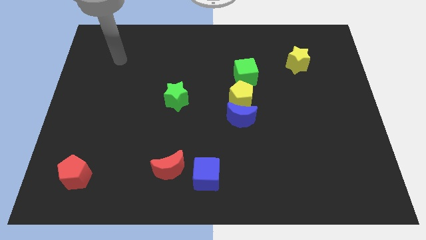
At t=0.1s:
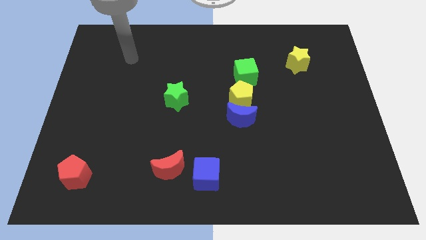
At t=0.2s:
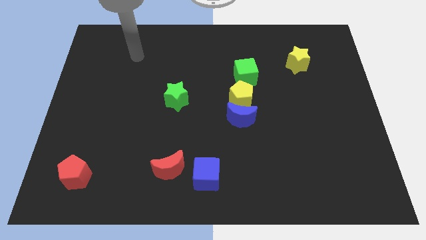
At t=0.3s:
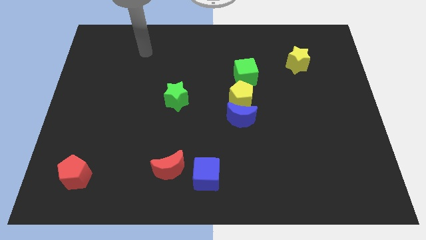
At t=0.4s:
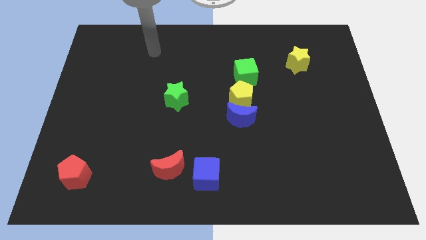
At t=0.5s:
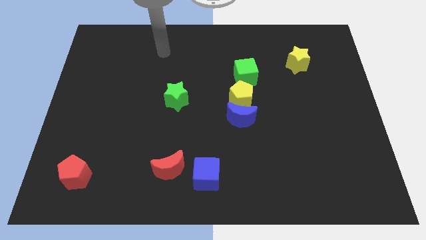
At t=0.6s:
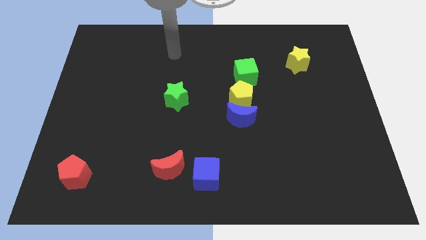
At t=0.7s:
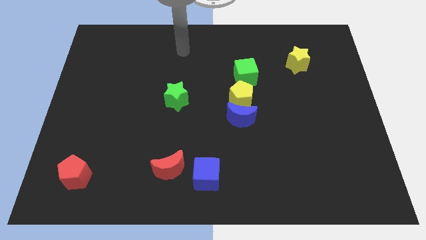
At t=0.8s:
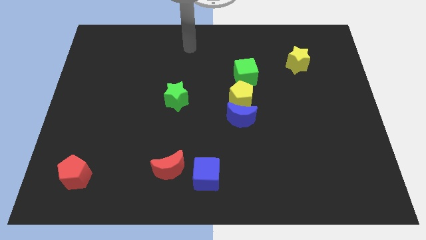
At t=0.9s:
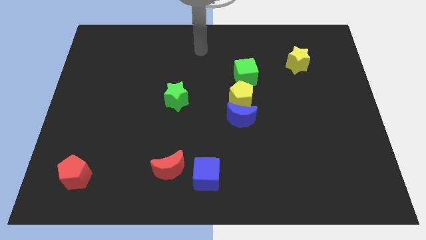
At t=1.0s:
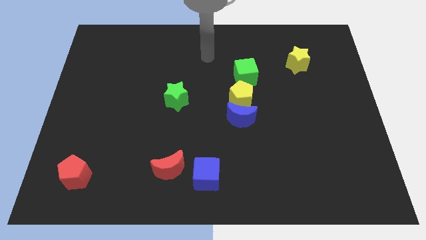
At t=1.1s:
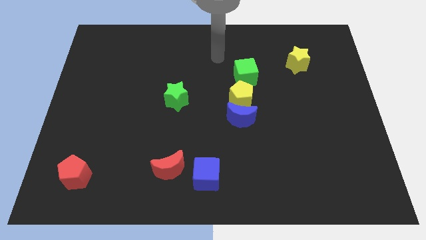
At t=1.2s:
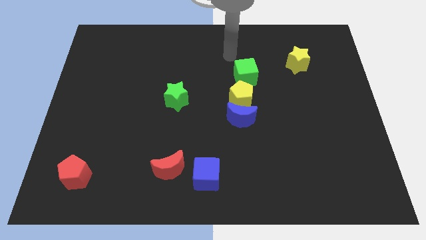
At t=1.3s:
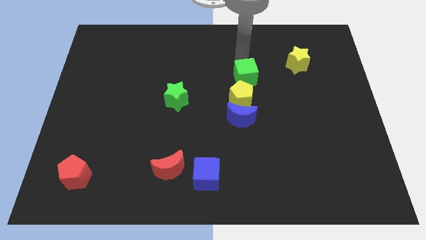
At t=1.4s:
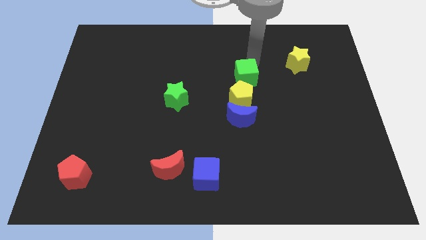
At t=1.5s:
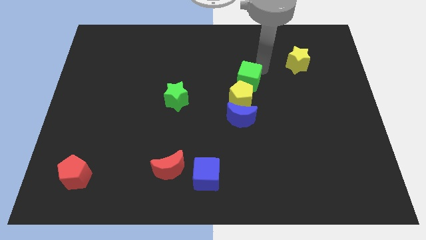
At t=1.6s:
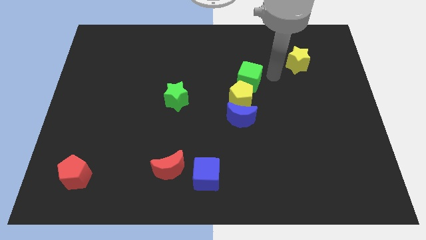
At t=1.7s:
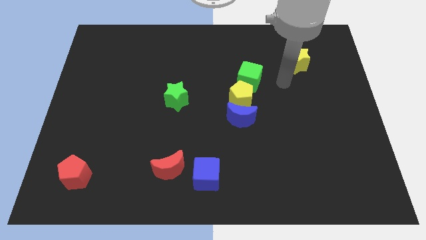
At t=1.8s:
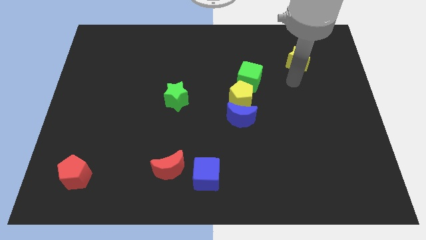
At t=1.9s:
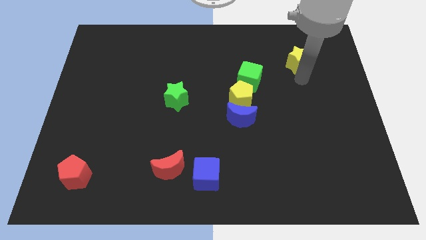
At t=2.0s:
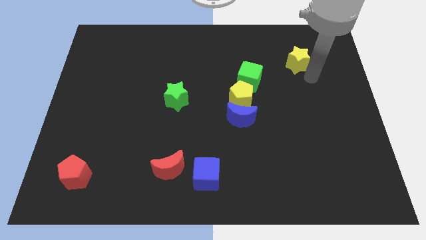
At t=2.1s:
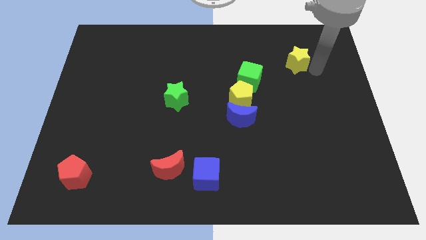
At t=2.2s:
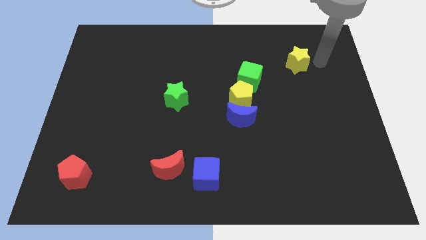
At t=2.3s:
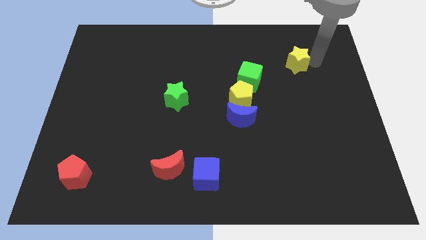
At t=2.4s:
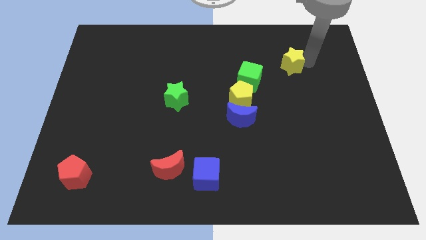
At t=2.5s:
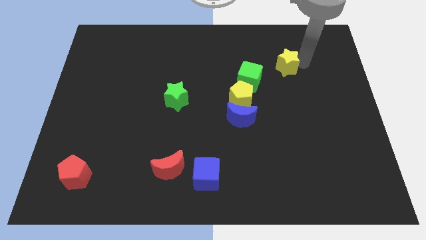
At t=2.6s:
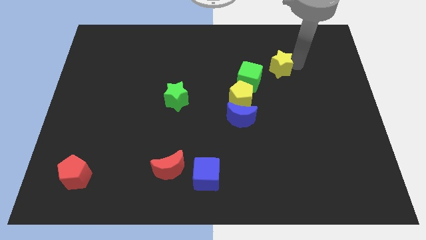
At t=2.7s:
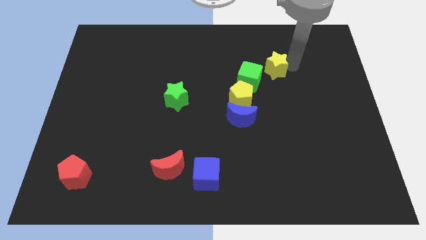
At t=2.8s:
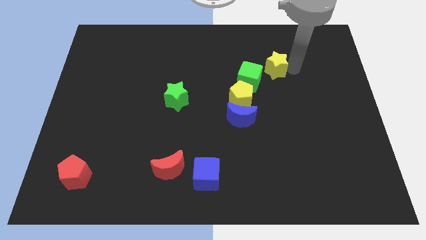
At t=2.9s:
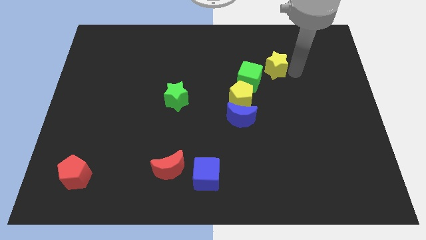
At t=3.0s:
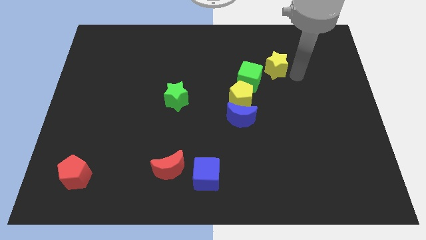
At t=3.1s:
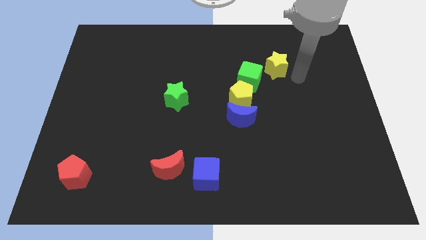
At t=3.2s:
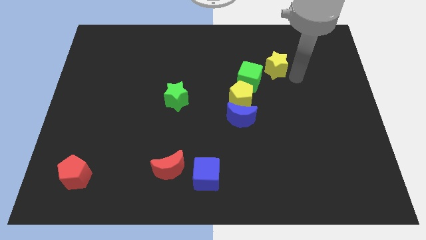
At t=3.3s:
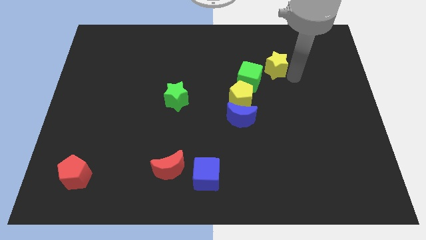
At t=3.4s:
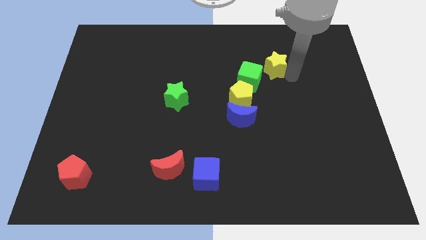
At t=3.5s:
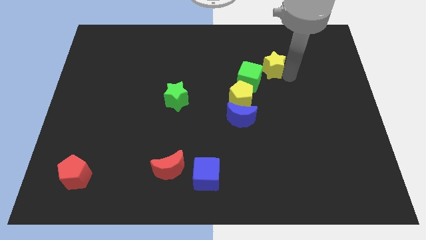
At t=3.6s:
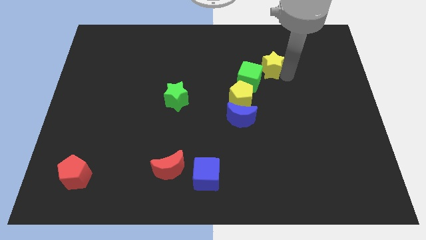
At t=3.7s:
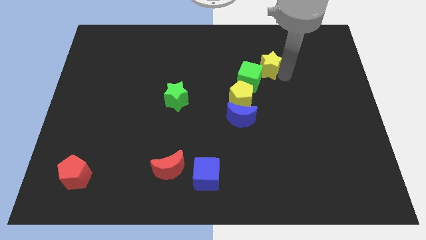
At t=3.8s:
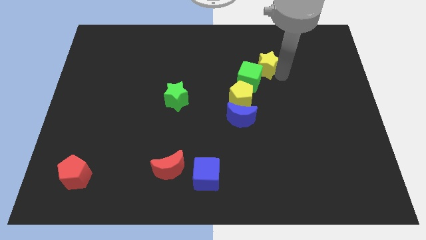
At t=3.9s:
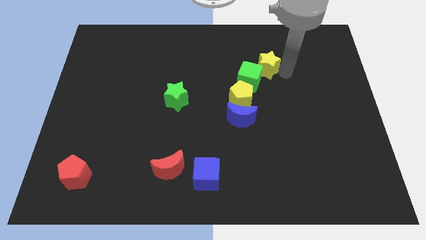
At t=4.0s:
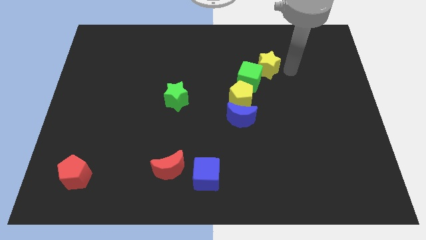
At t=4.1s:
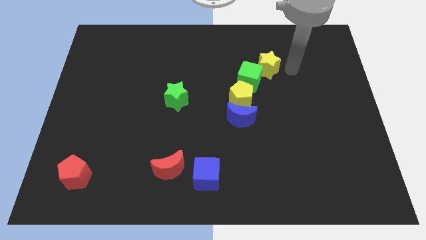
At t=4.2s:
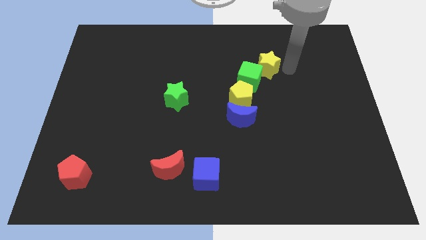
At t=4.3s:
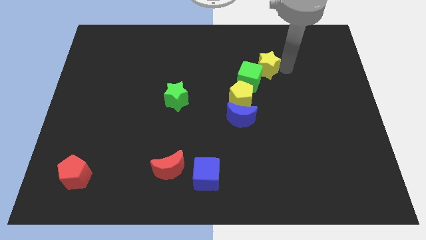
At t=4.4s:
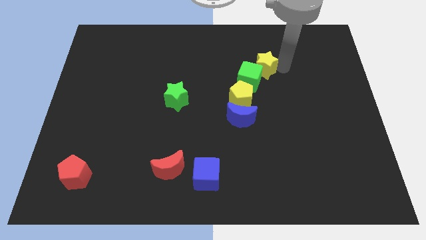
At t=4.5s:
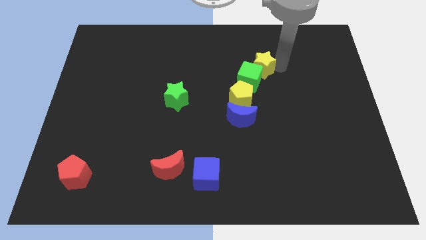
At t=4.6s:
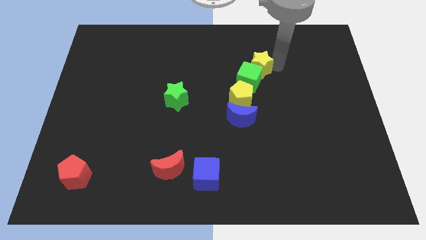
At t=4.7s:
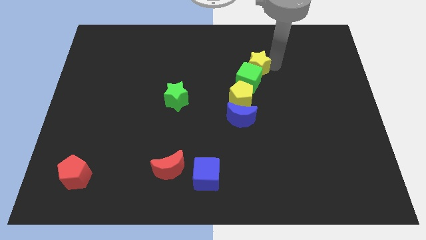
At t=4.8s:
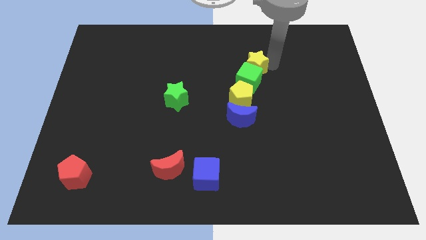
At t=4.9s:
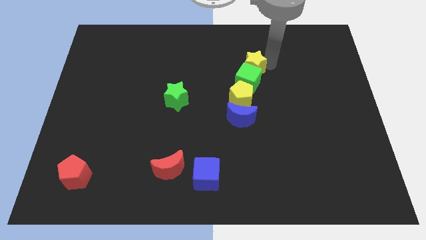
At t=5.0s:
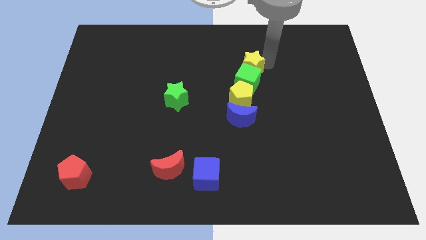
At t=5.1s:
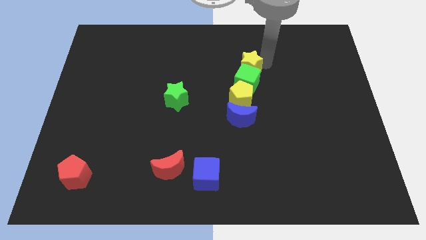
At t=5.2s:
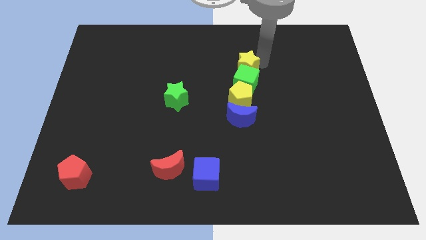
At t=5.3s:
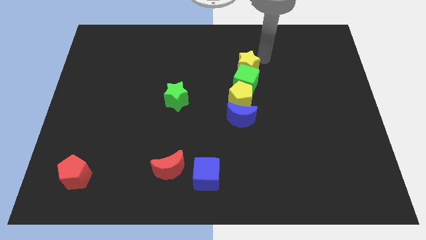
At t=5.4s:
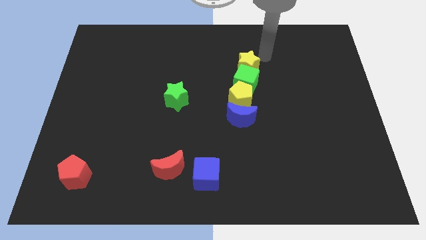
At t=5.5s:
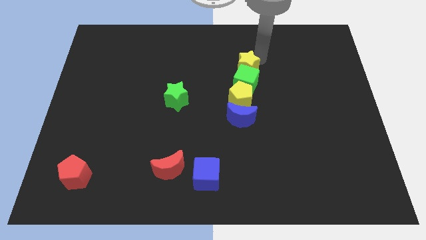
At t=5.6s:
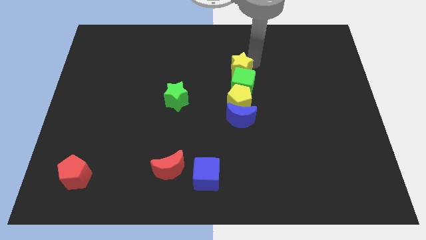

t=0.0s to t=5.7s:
move the yellow star to the center
